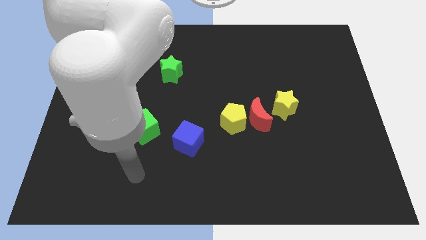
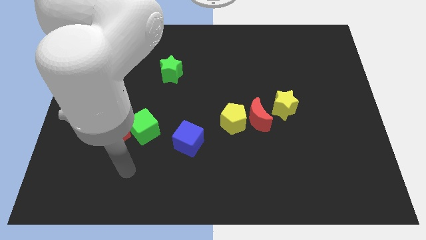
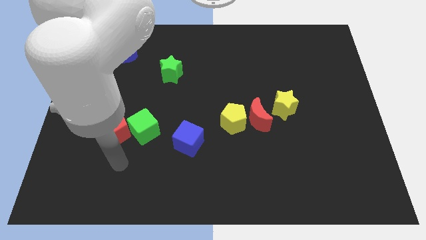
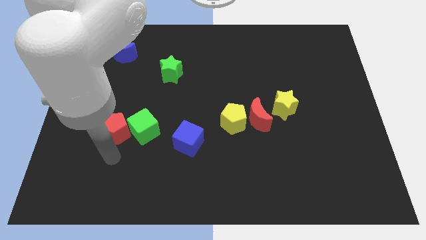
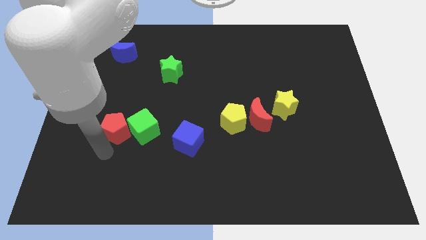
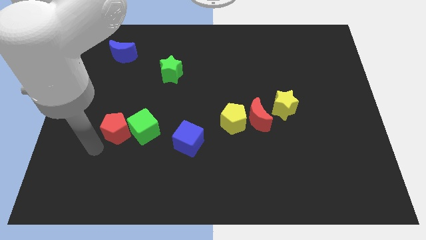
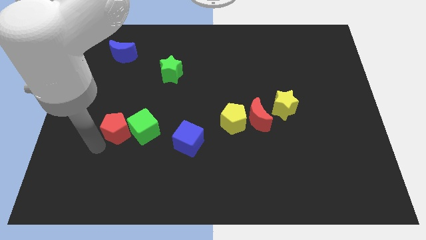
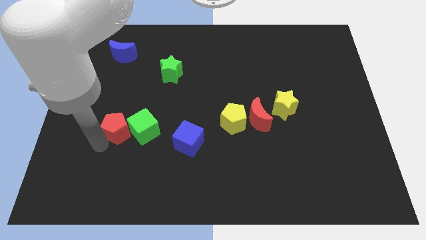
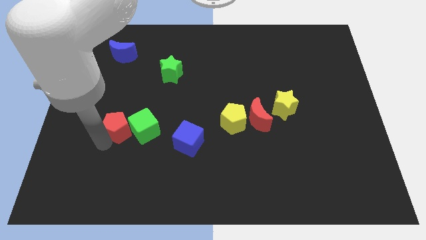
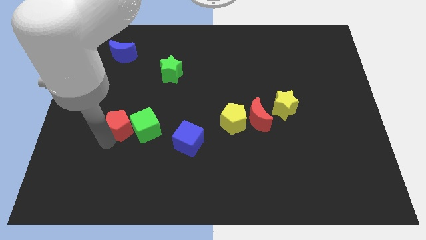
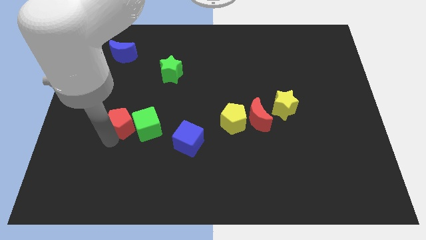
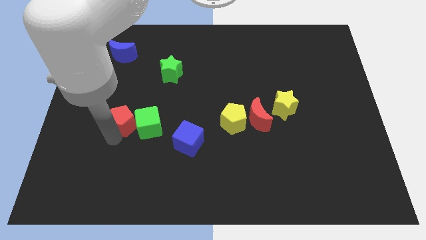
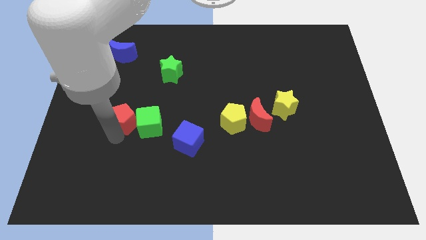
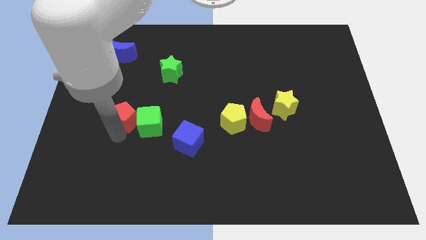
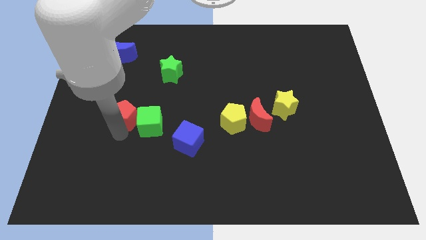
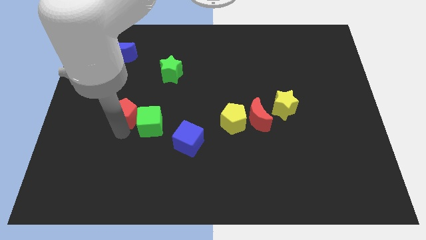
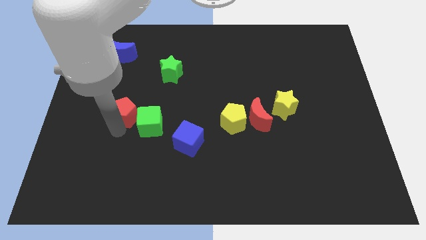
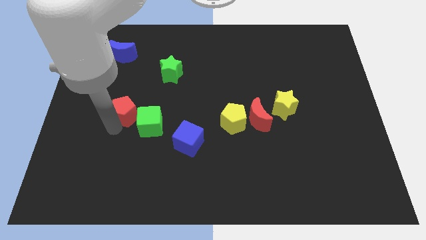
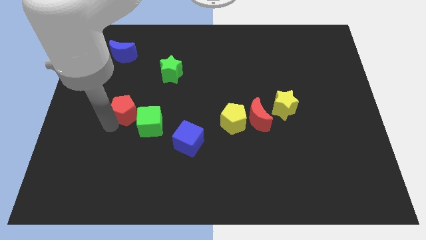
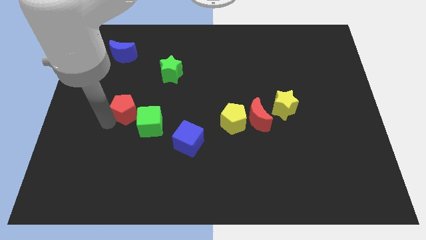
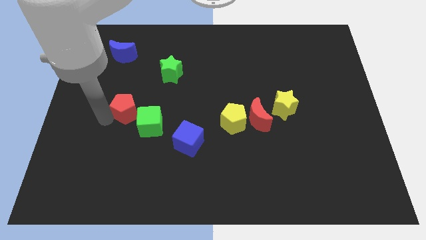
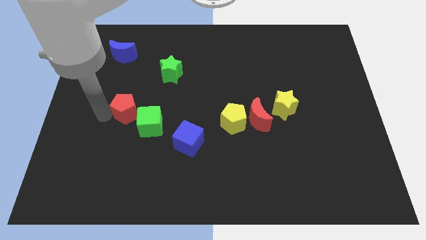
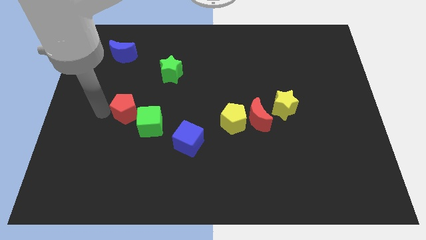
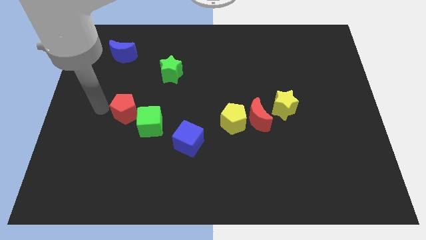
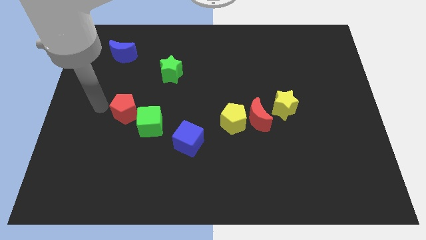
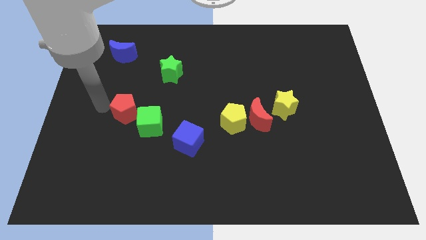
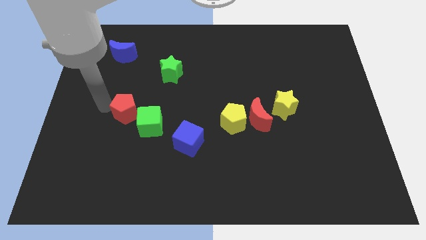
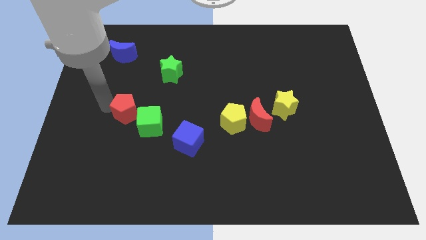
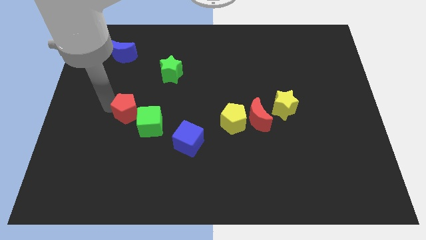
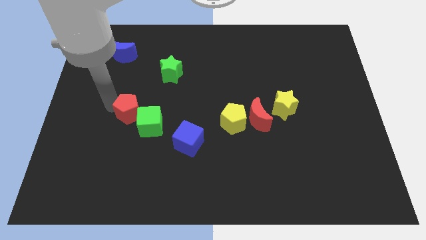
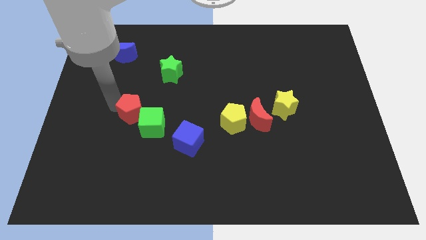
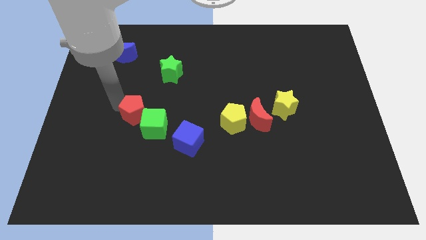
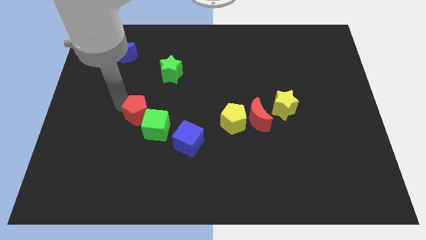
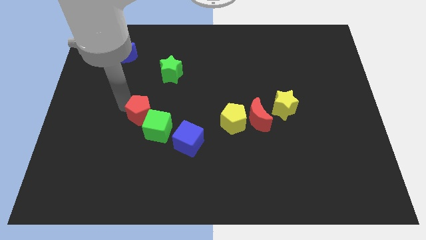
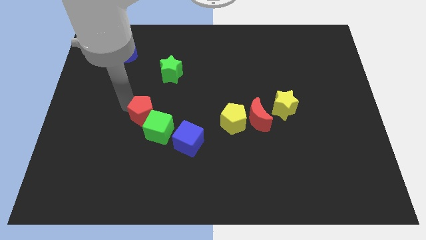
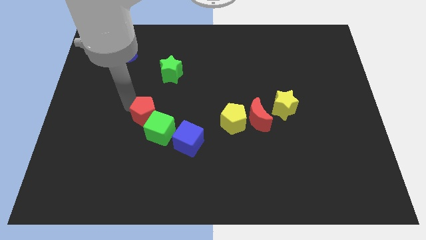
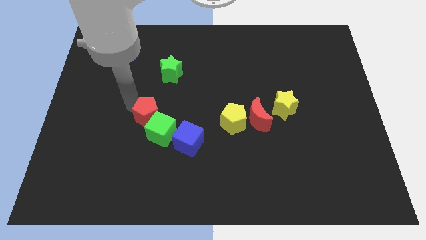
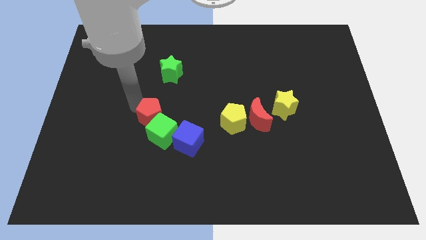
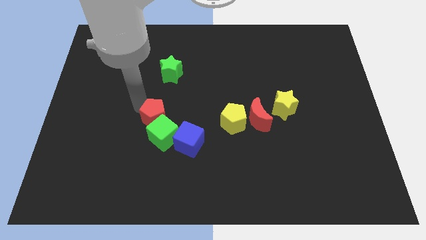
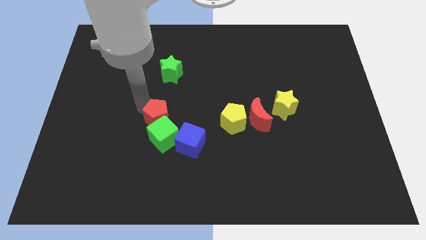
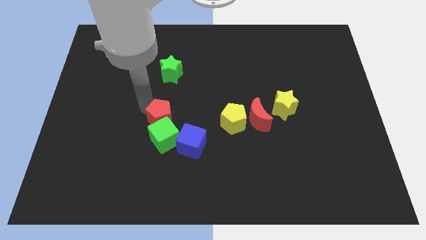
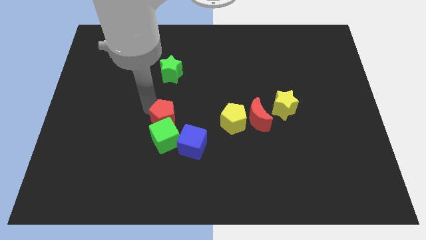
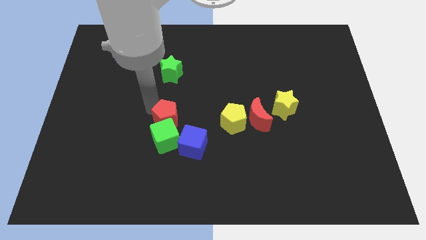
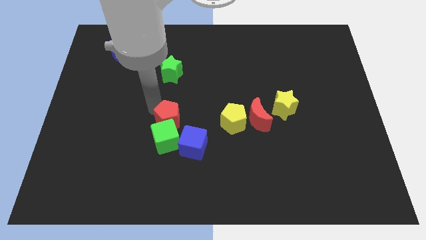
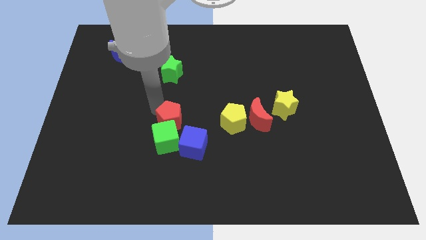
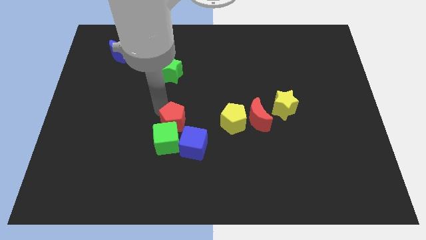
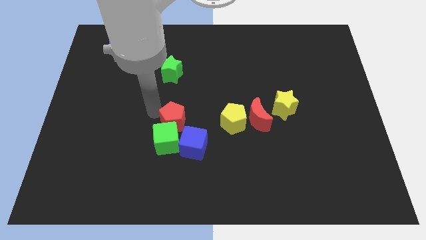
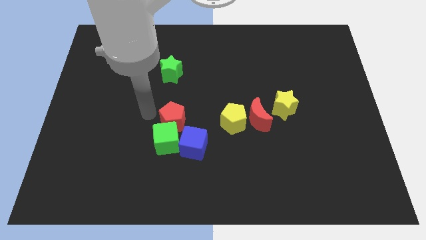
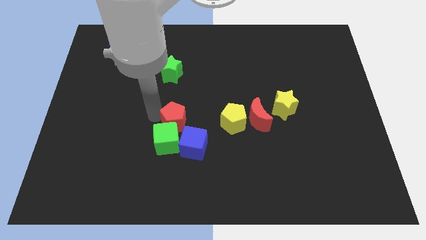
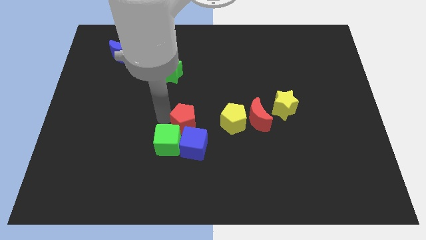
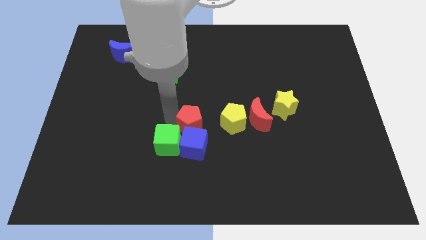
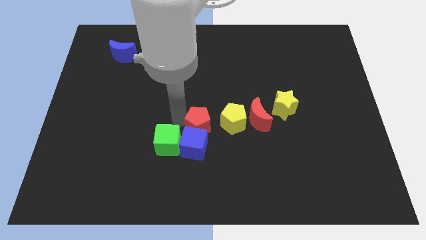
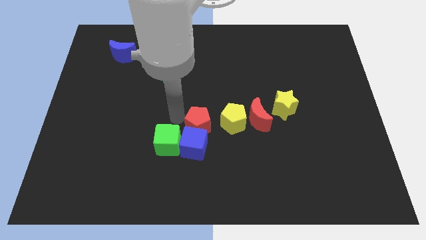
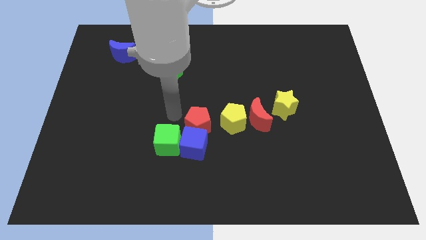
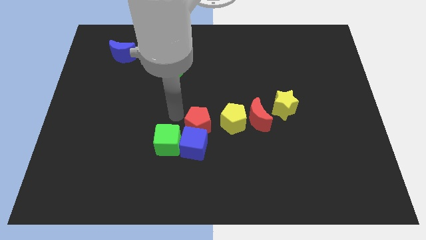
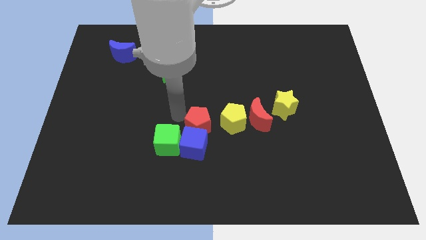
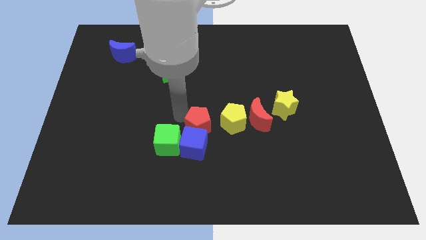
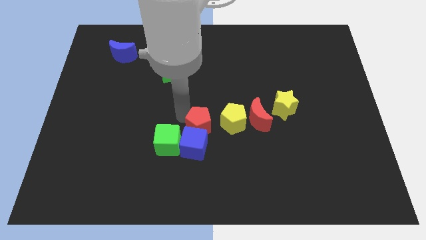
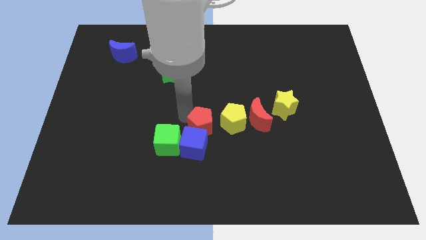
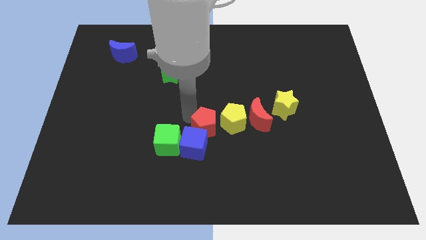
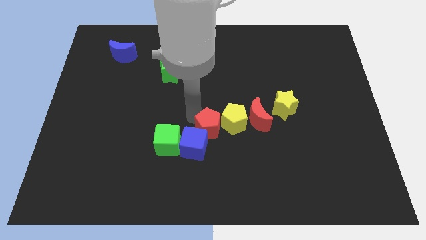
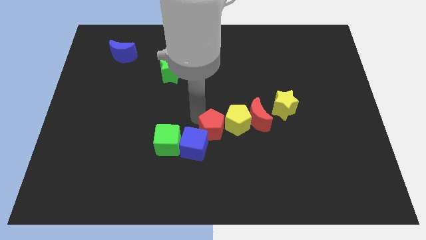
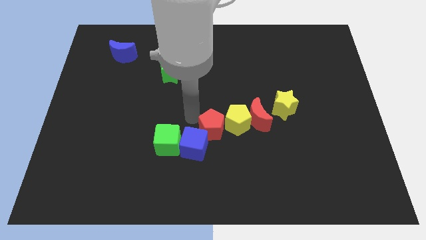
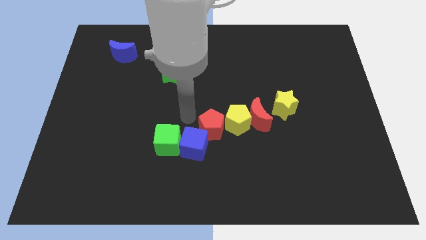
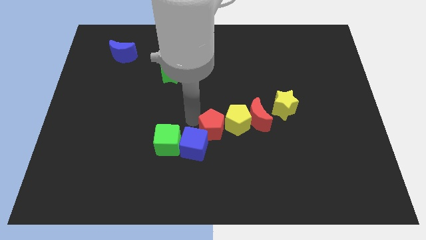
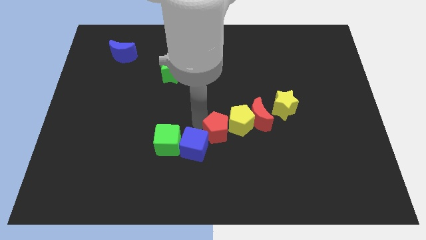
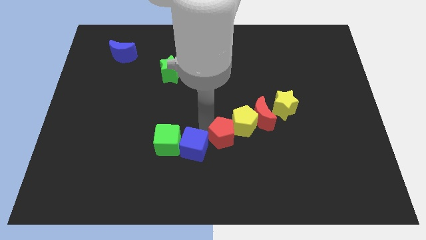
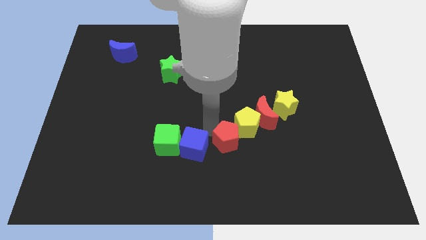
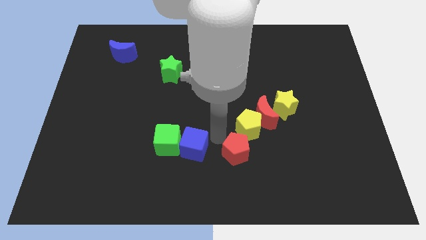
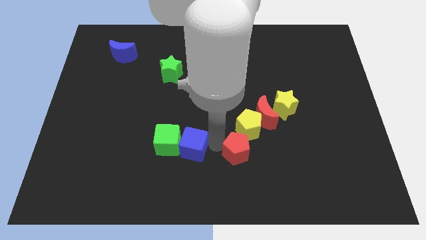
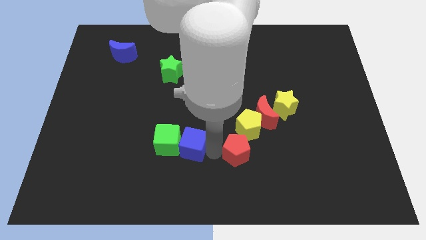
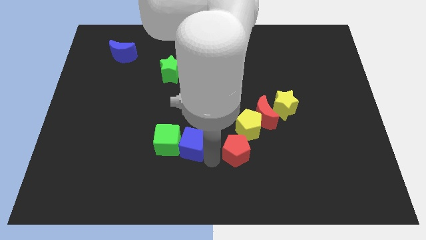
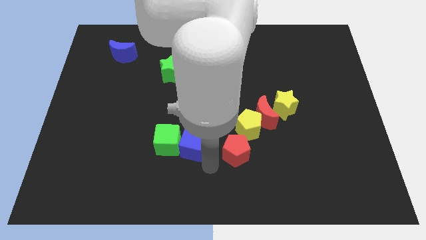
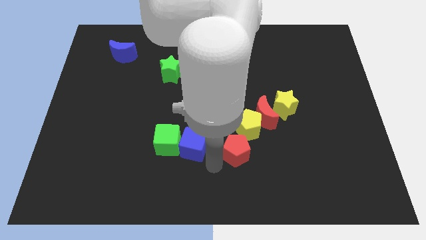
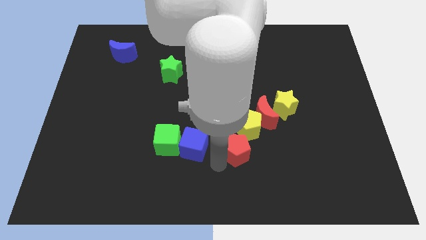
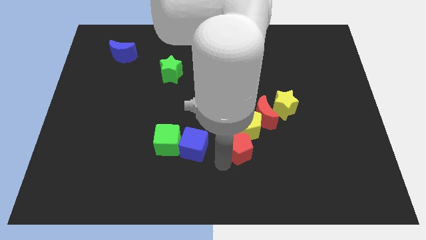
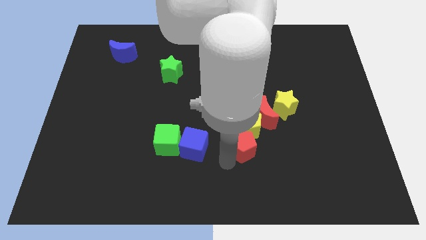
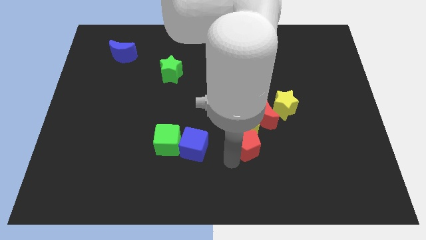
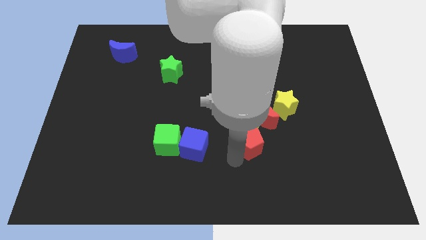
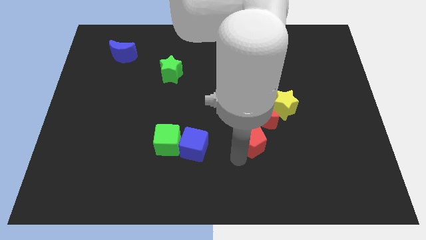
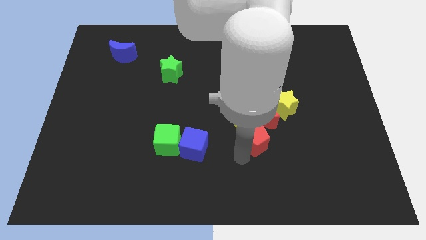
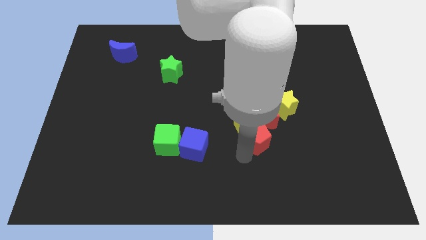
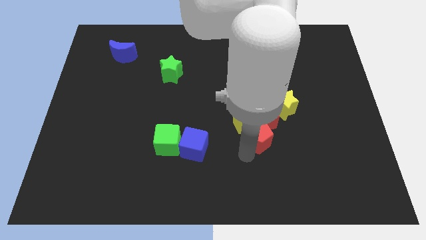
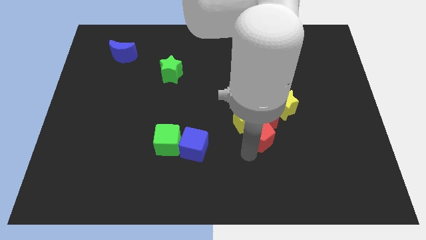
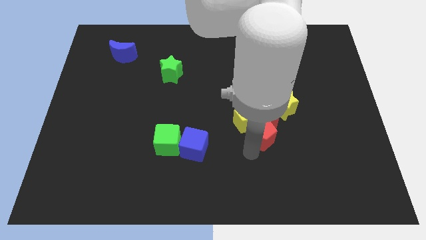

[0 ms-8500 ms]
put the red pentagon to the right side of the yellow pentagon
